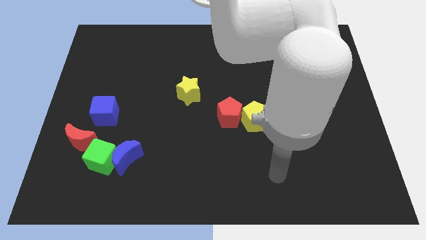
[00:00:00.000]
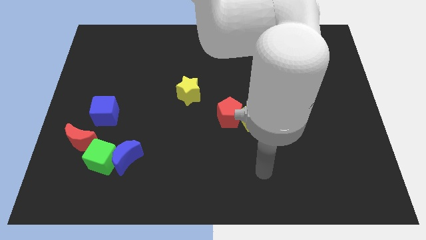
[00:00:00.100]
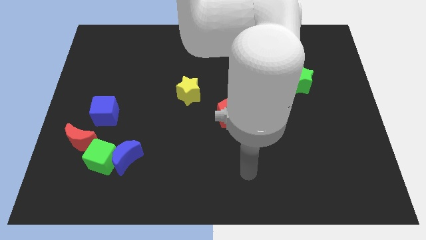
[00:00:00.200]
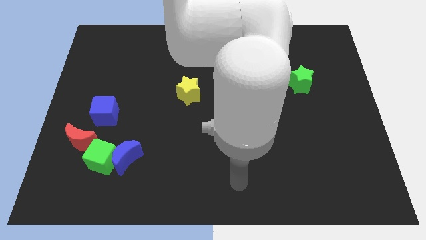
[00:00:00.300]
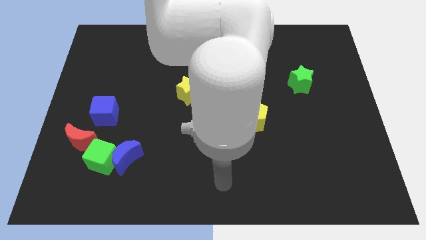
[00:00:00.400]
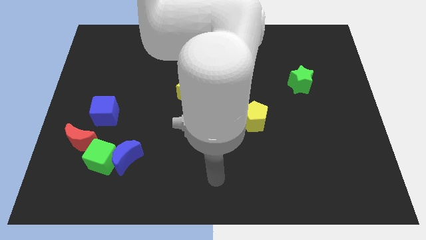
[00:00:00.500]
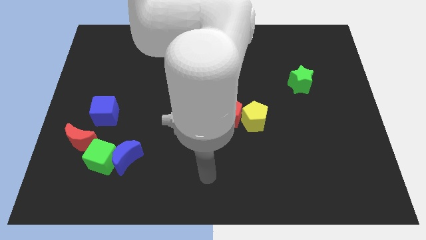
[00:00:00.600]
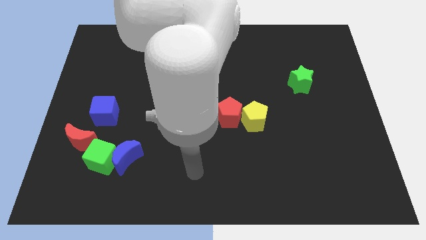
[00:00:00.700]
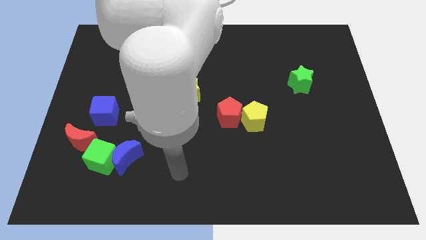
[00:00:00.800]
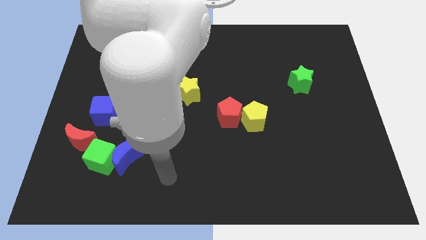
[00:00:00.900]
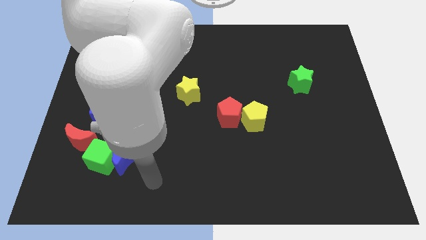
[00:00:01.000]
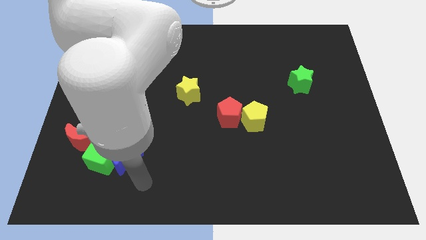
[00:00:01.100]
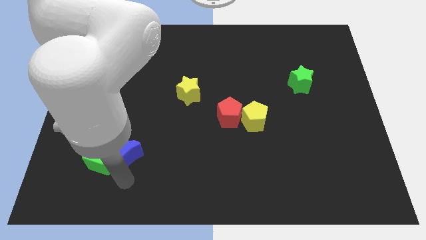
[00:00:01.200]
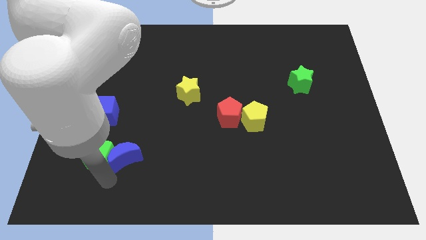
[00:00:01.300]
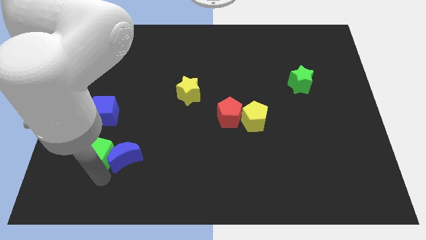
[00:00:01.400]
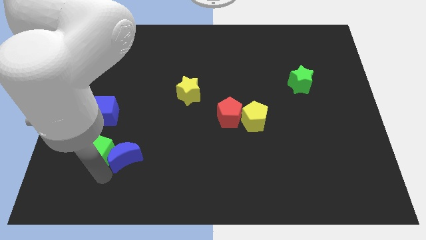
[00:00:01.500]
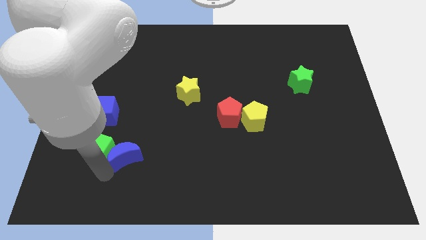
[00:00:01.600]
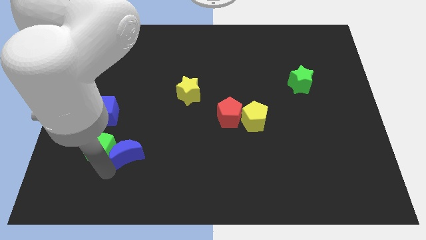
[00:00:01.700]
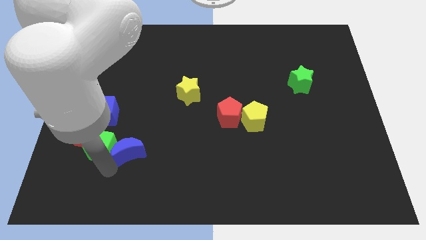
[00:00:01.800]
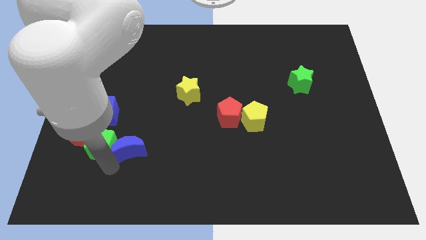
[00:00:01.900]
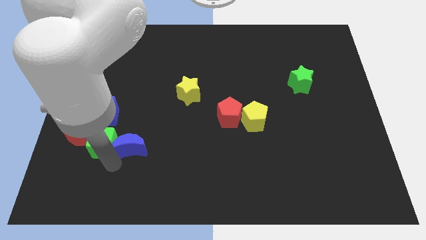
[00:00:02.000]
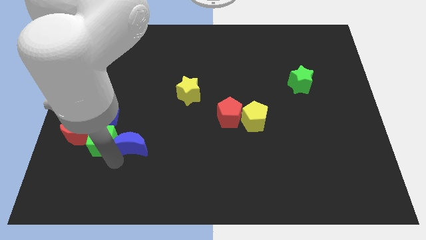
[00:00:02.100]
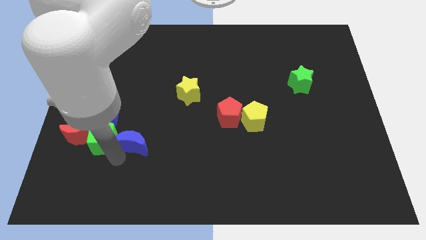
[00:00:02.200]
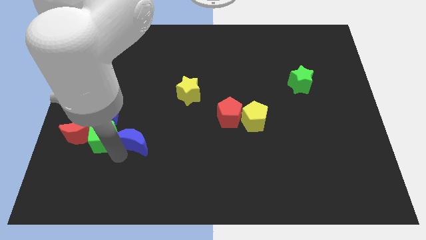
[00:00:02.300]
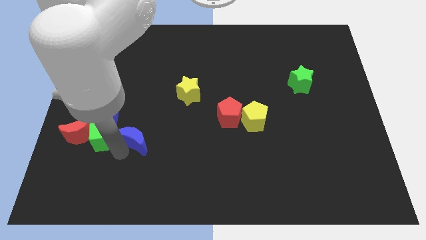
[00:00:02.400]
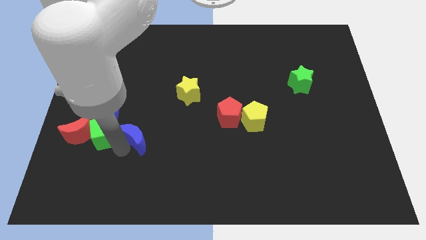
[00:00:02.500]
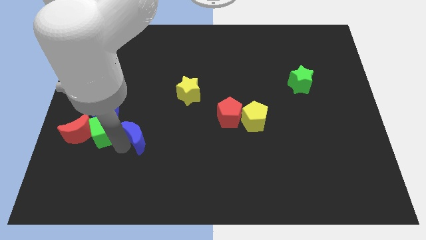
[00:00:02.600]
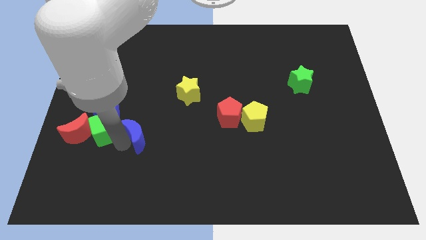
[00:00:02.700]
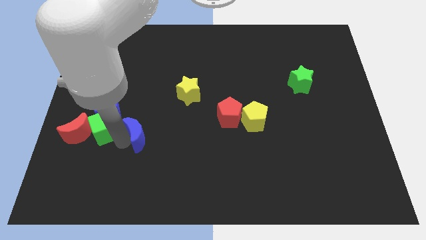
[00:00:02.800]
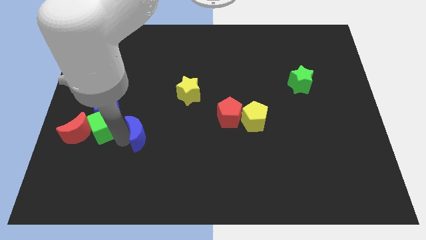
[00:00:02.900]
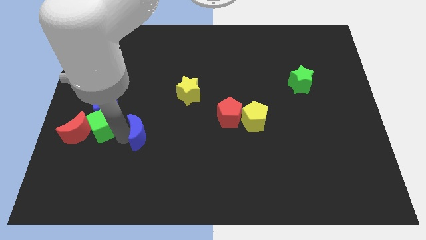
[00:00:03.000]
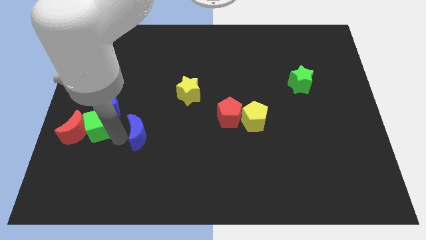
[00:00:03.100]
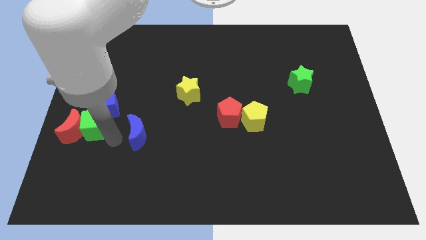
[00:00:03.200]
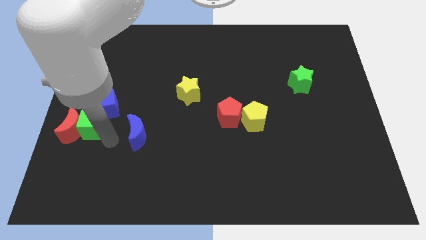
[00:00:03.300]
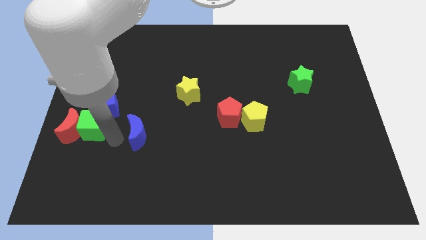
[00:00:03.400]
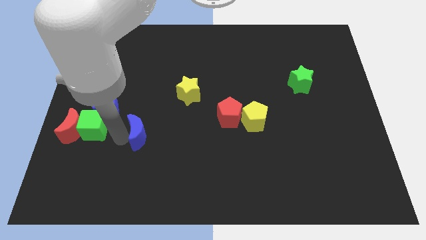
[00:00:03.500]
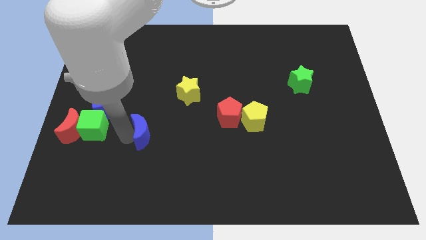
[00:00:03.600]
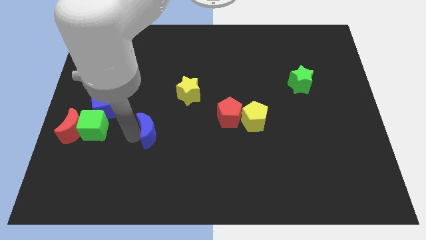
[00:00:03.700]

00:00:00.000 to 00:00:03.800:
move the blue moon upwards and then right a bit

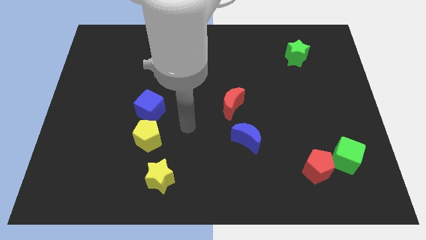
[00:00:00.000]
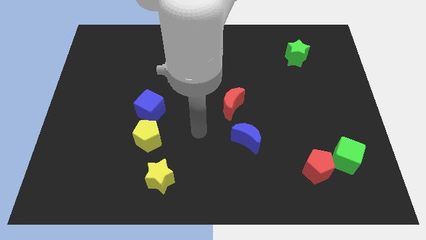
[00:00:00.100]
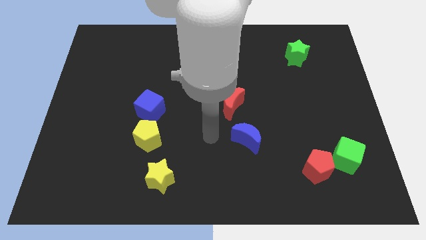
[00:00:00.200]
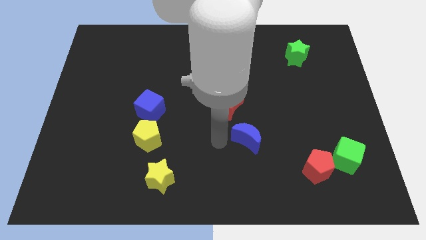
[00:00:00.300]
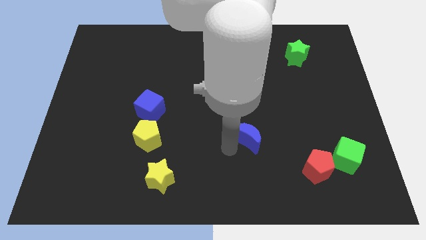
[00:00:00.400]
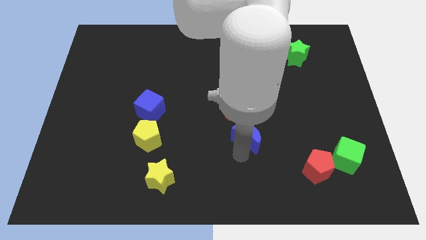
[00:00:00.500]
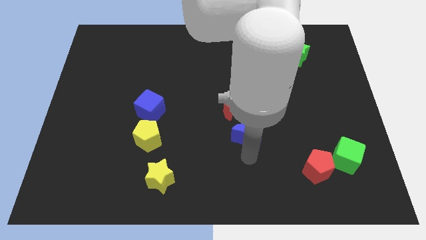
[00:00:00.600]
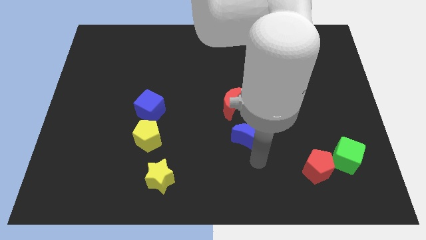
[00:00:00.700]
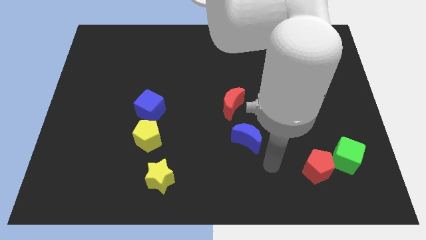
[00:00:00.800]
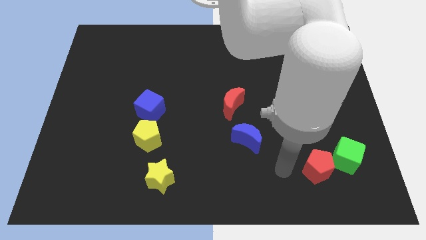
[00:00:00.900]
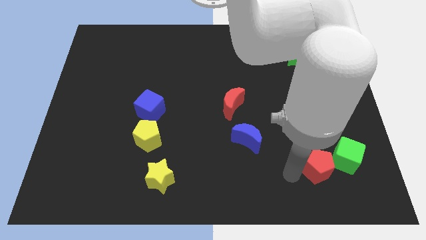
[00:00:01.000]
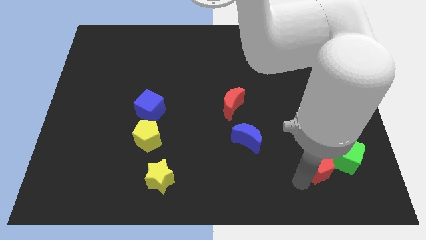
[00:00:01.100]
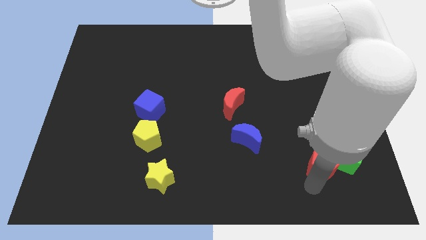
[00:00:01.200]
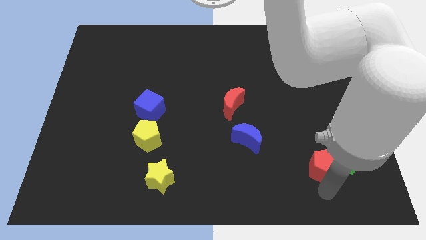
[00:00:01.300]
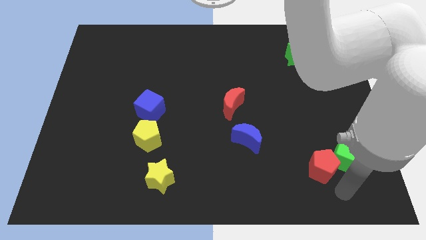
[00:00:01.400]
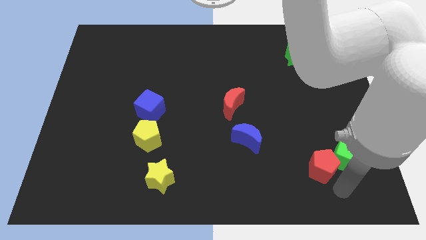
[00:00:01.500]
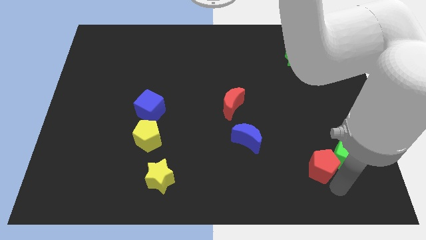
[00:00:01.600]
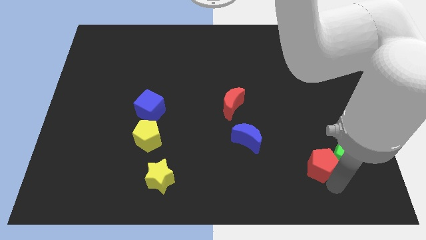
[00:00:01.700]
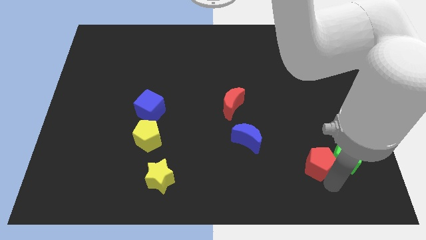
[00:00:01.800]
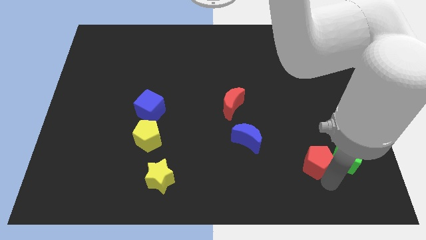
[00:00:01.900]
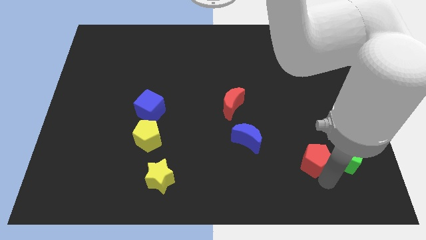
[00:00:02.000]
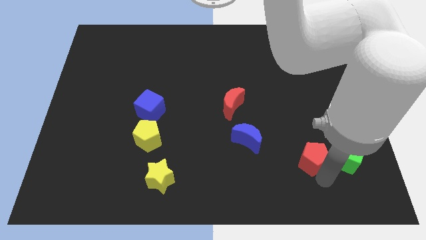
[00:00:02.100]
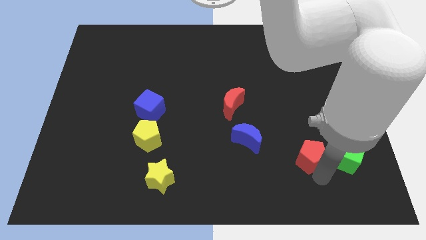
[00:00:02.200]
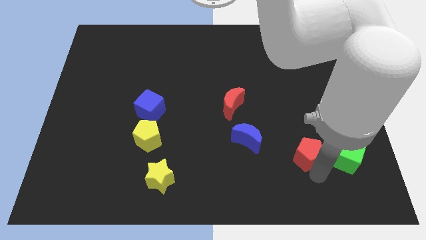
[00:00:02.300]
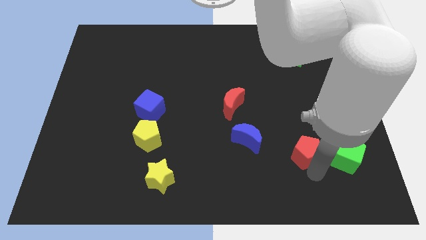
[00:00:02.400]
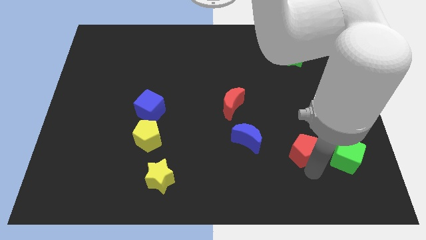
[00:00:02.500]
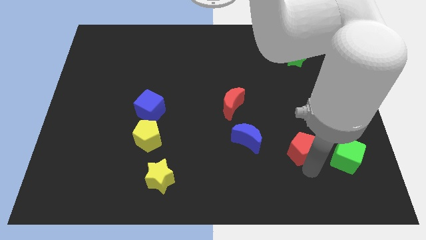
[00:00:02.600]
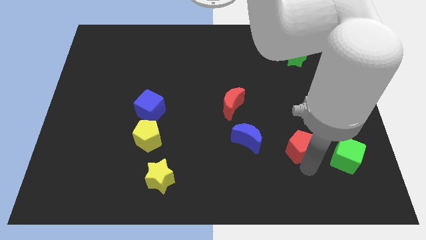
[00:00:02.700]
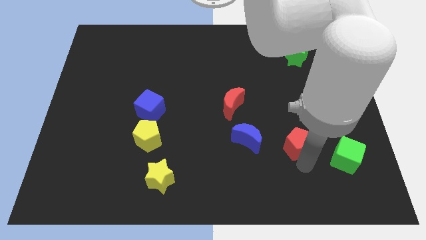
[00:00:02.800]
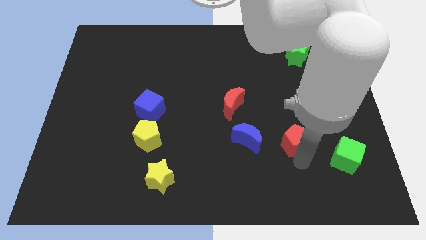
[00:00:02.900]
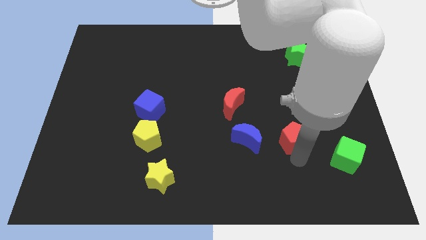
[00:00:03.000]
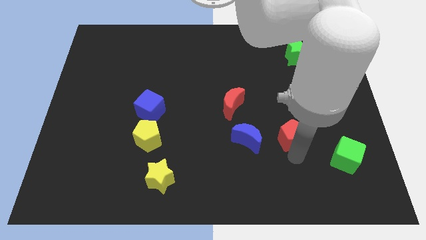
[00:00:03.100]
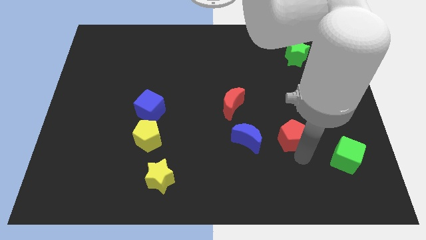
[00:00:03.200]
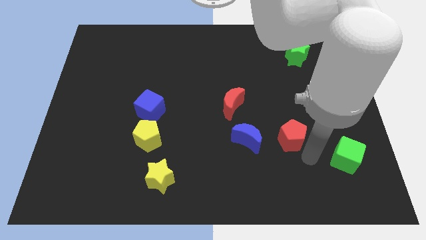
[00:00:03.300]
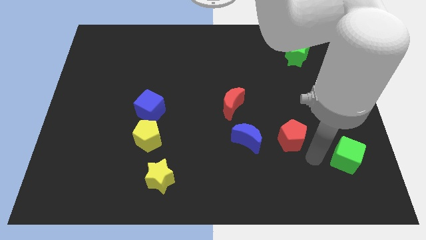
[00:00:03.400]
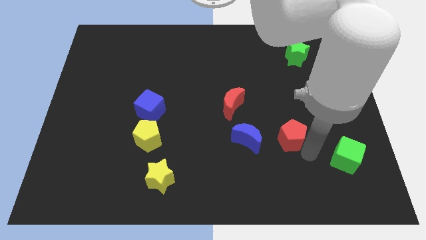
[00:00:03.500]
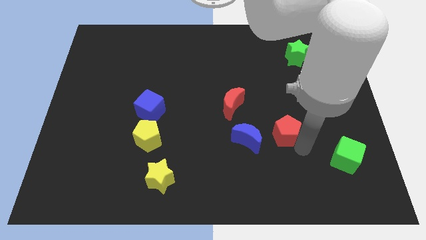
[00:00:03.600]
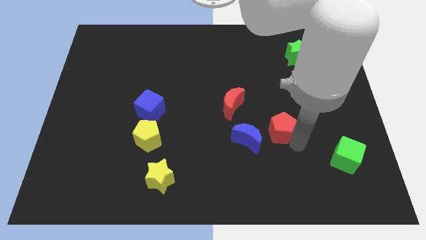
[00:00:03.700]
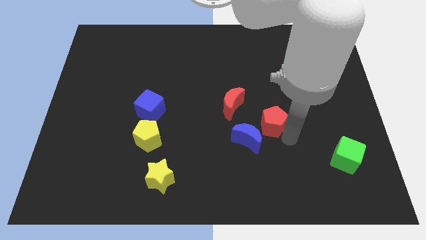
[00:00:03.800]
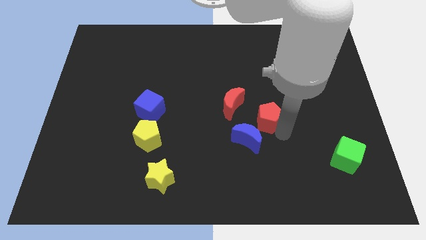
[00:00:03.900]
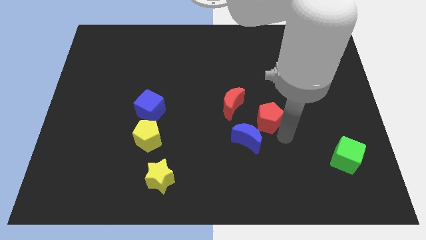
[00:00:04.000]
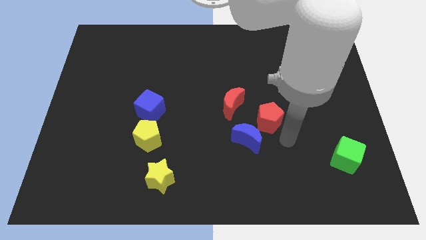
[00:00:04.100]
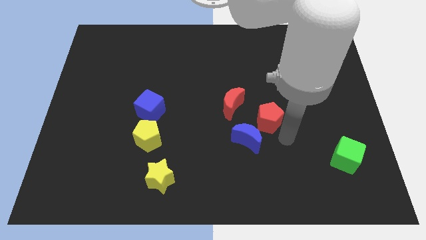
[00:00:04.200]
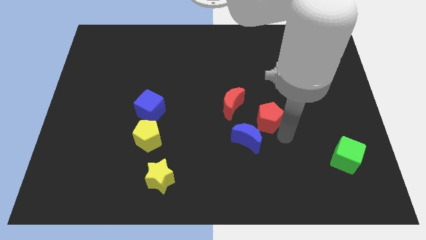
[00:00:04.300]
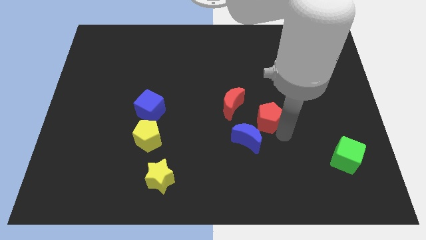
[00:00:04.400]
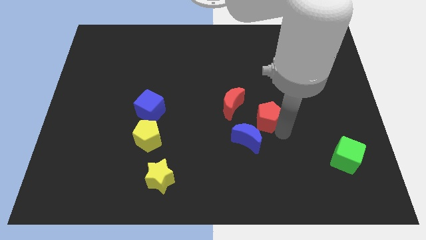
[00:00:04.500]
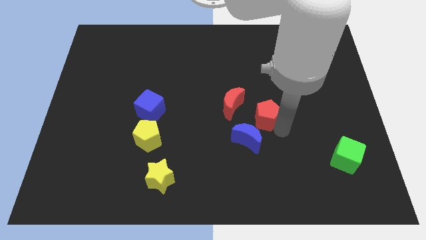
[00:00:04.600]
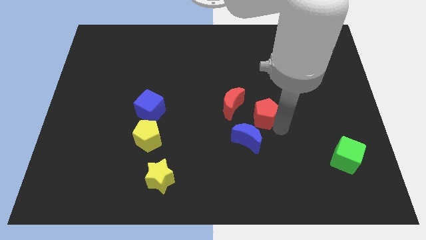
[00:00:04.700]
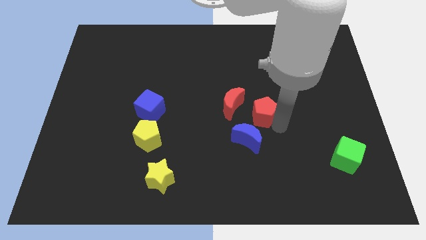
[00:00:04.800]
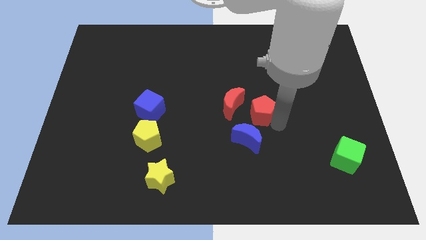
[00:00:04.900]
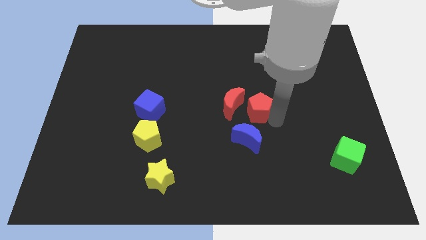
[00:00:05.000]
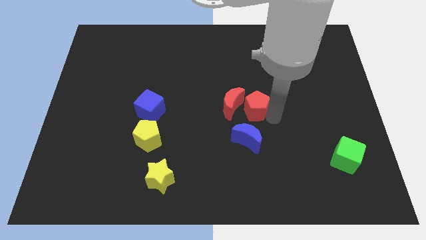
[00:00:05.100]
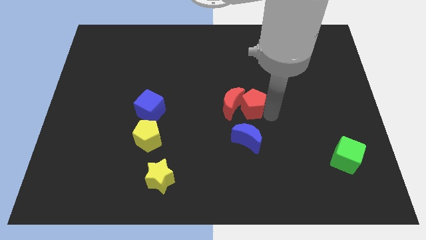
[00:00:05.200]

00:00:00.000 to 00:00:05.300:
move the red pentagon up and to the left
